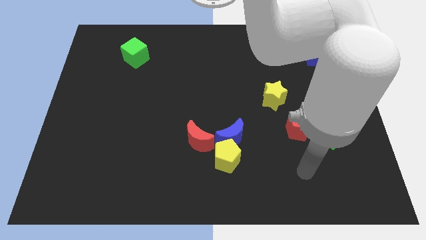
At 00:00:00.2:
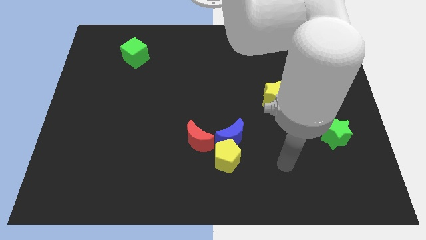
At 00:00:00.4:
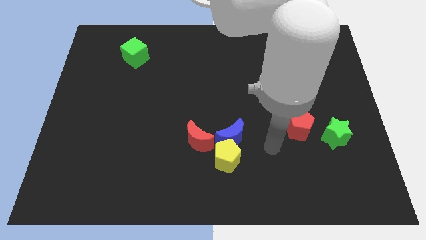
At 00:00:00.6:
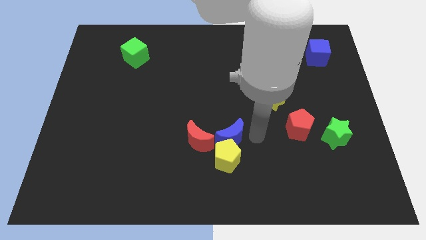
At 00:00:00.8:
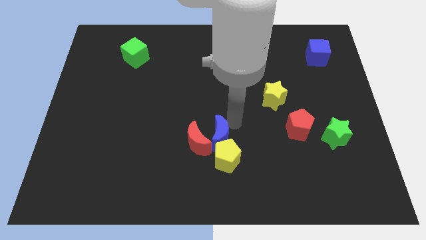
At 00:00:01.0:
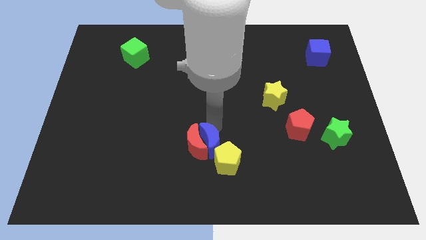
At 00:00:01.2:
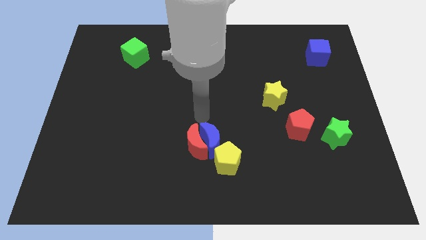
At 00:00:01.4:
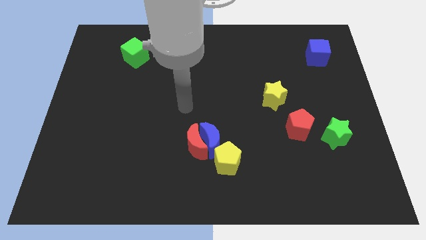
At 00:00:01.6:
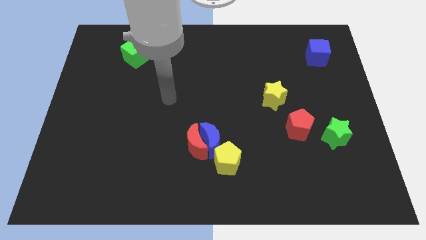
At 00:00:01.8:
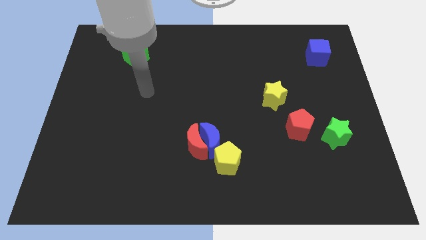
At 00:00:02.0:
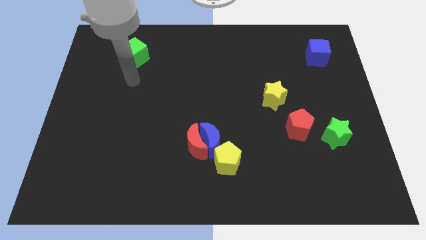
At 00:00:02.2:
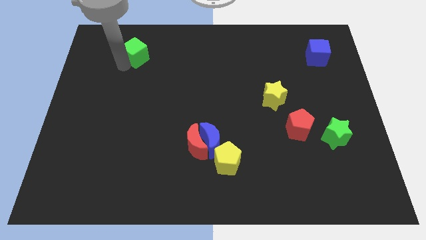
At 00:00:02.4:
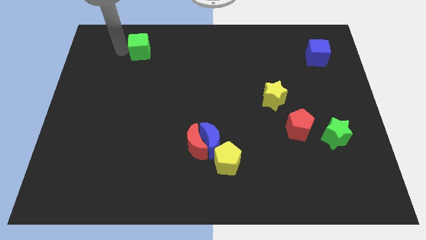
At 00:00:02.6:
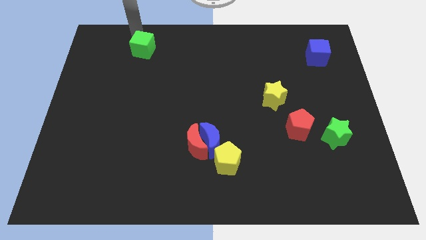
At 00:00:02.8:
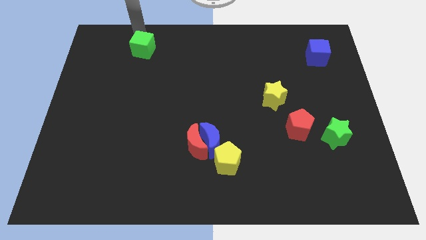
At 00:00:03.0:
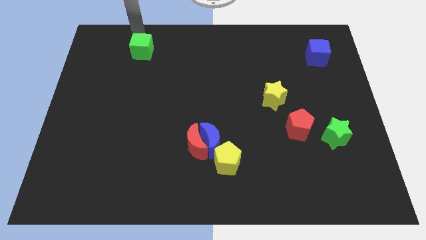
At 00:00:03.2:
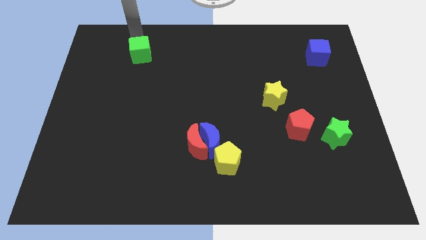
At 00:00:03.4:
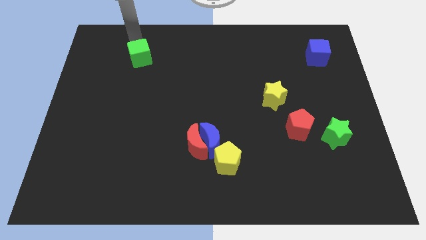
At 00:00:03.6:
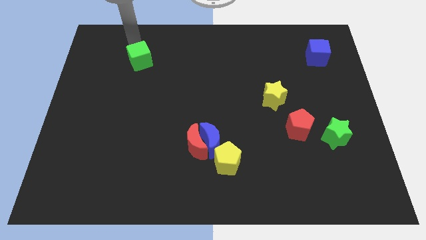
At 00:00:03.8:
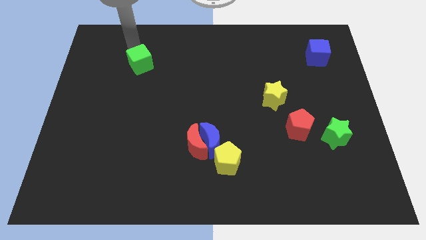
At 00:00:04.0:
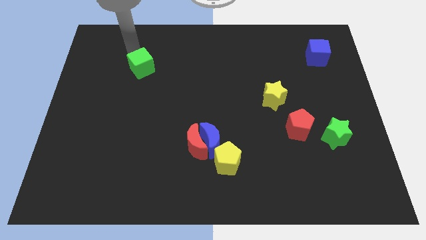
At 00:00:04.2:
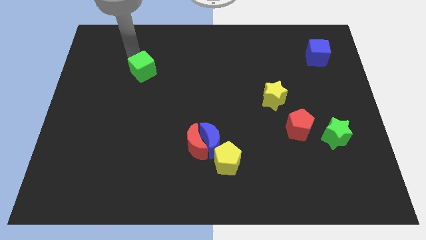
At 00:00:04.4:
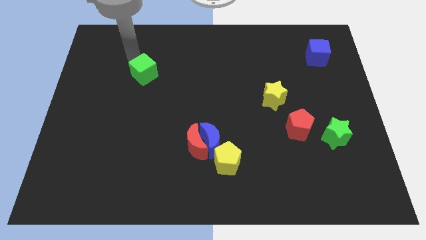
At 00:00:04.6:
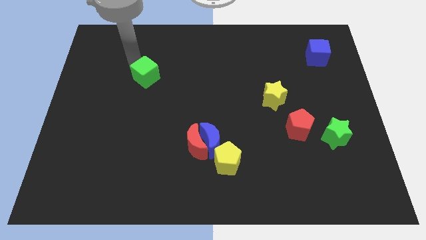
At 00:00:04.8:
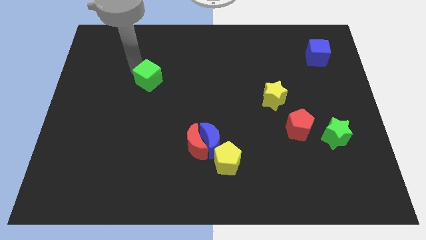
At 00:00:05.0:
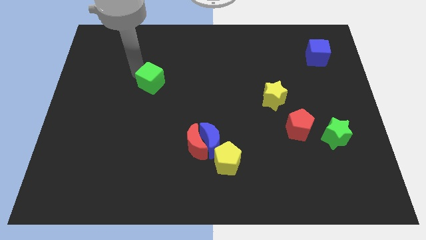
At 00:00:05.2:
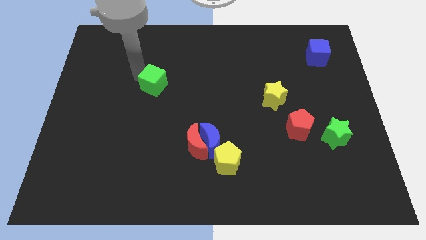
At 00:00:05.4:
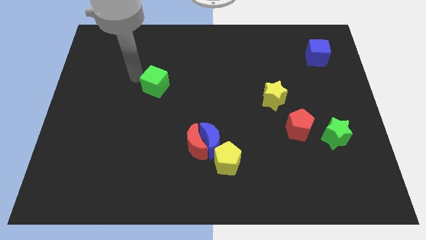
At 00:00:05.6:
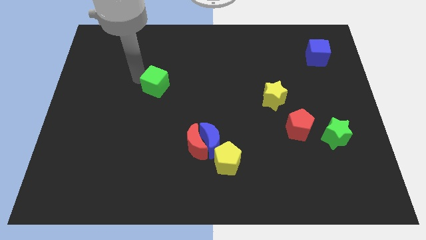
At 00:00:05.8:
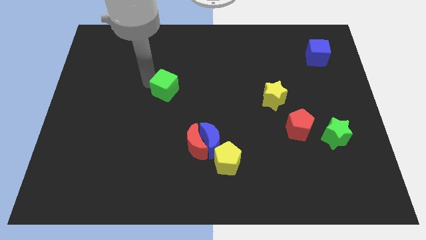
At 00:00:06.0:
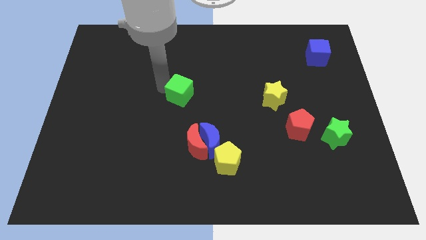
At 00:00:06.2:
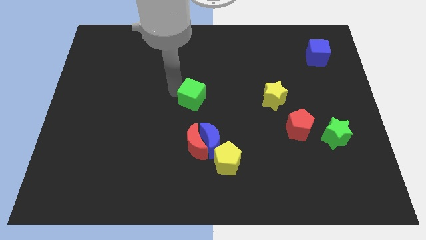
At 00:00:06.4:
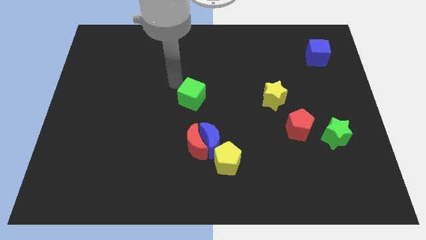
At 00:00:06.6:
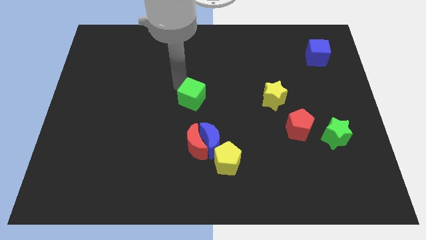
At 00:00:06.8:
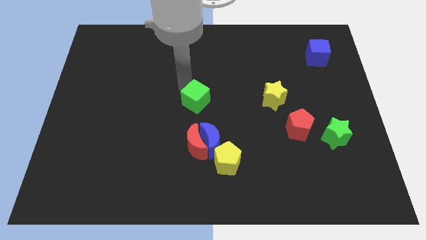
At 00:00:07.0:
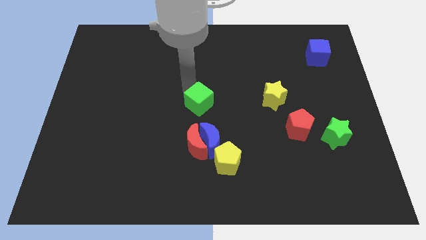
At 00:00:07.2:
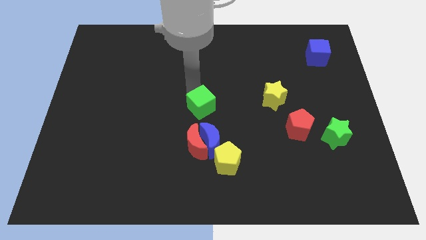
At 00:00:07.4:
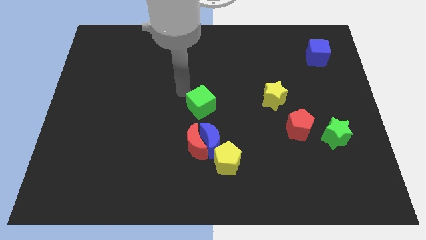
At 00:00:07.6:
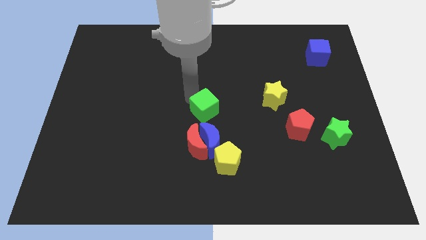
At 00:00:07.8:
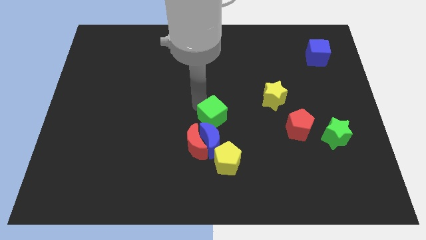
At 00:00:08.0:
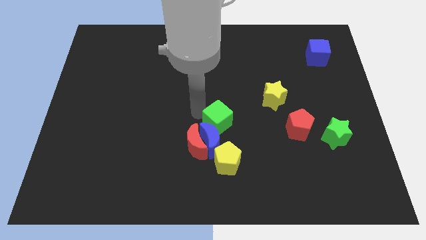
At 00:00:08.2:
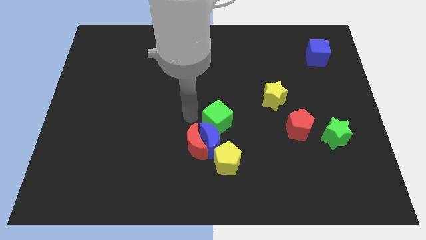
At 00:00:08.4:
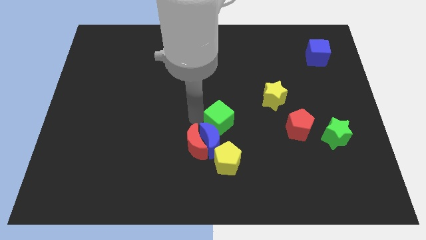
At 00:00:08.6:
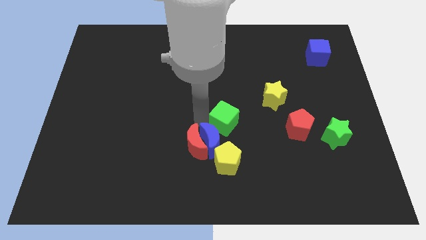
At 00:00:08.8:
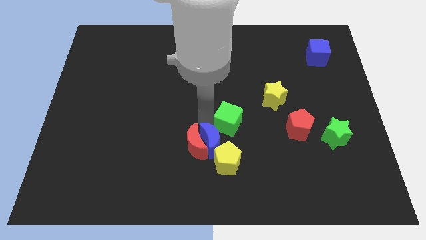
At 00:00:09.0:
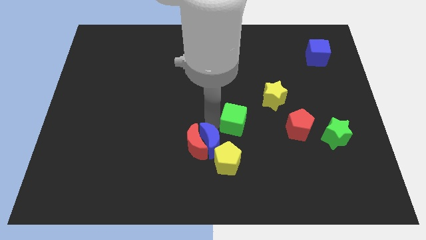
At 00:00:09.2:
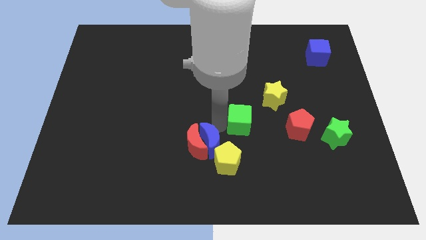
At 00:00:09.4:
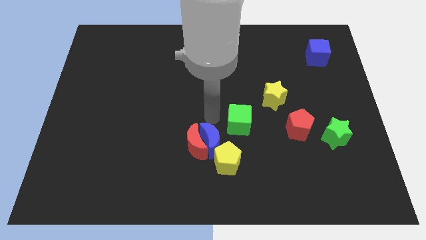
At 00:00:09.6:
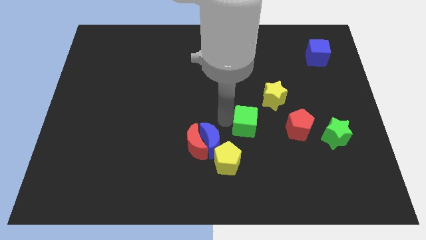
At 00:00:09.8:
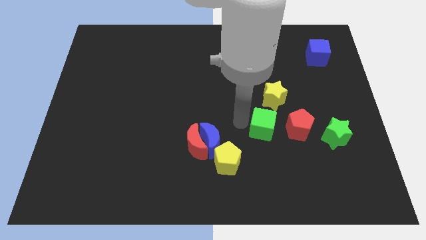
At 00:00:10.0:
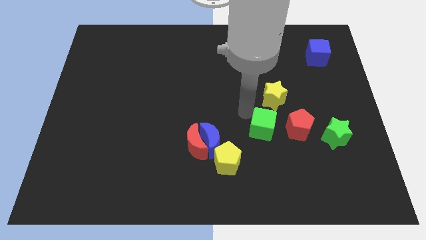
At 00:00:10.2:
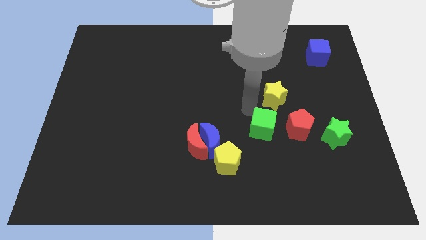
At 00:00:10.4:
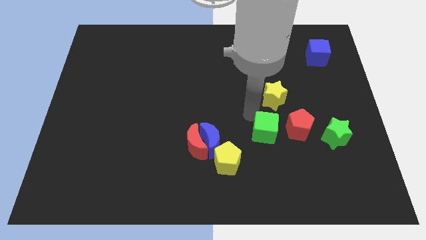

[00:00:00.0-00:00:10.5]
put the green cube to the bottom left of the red pentagon

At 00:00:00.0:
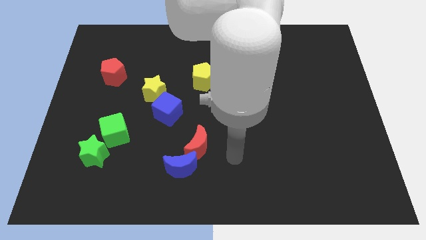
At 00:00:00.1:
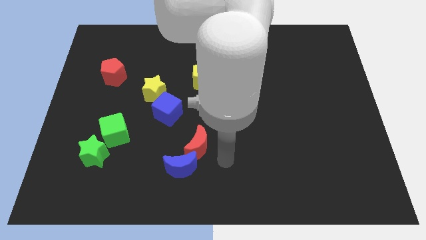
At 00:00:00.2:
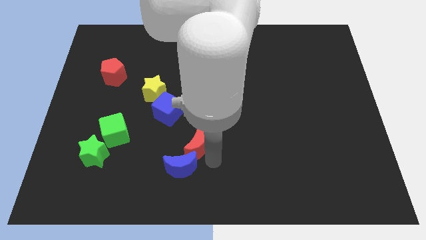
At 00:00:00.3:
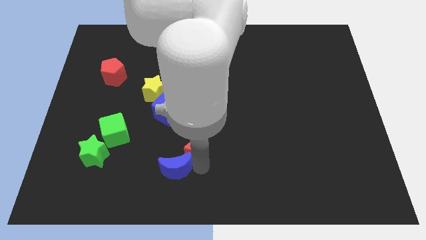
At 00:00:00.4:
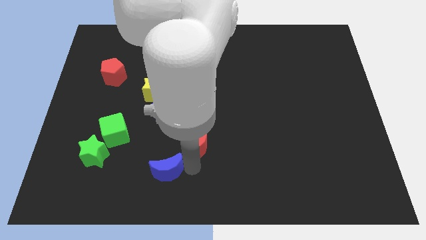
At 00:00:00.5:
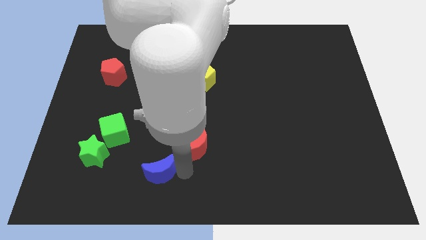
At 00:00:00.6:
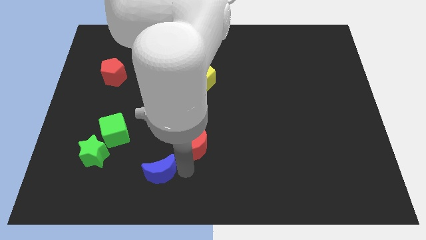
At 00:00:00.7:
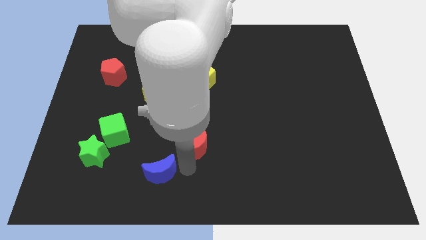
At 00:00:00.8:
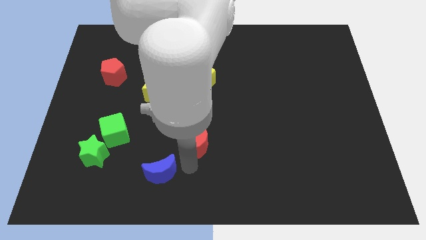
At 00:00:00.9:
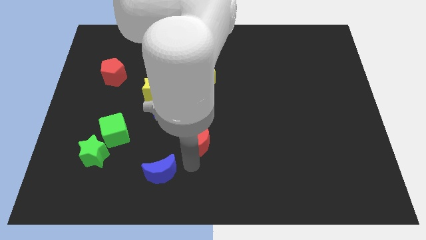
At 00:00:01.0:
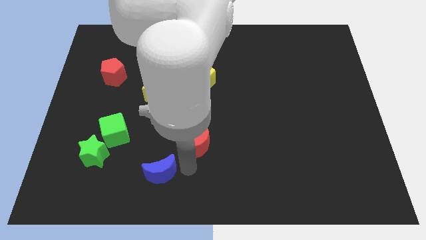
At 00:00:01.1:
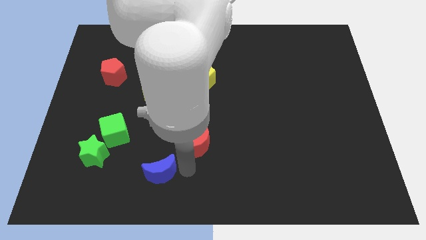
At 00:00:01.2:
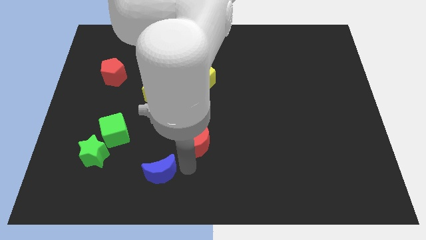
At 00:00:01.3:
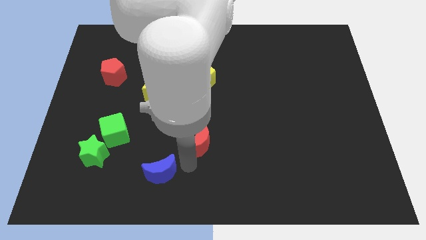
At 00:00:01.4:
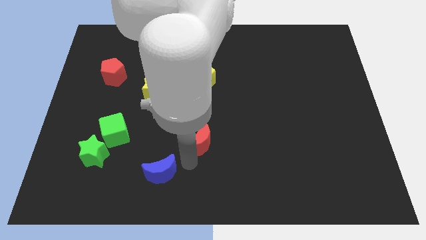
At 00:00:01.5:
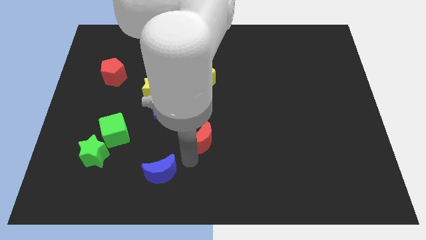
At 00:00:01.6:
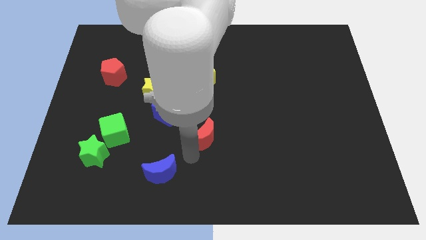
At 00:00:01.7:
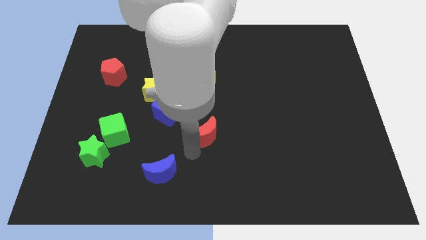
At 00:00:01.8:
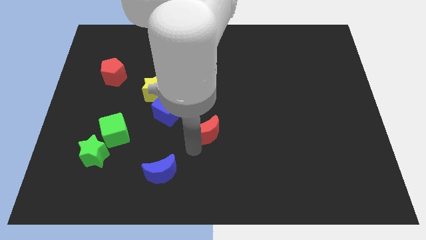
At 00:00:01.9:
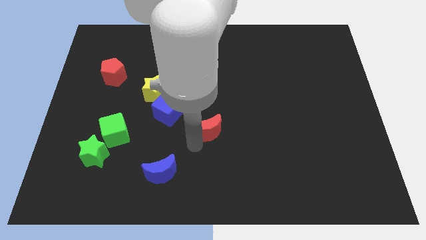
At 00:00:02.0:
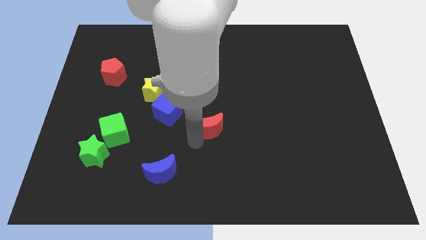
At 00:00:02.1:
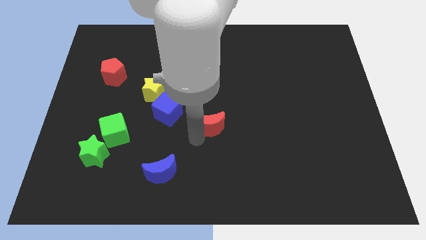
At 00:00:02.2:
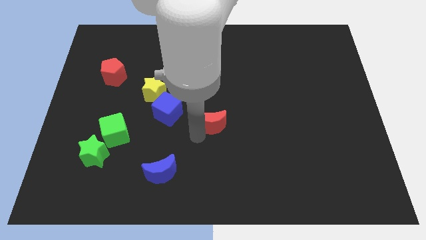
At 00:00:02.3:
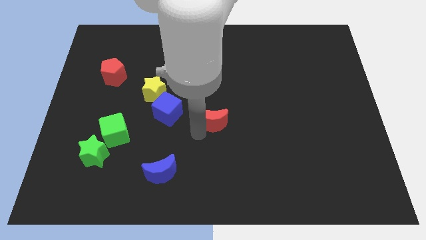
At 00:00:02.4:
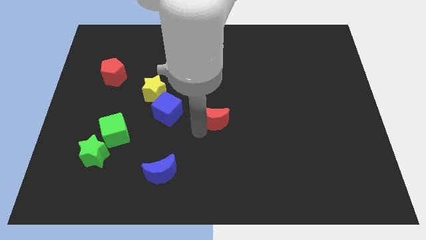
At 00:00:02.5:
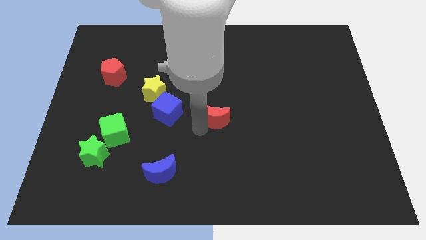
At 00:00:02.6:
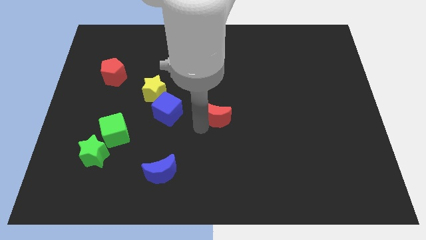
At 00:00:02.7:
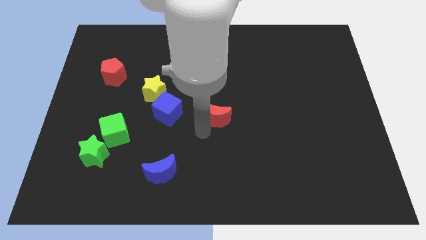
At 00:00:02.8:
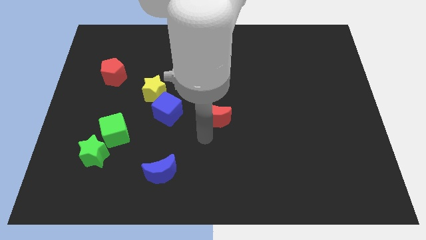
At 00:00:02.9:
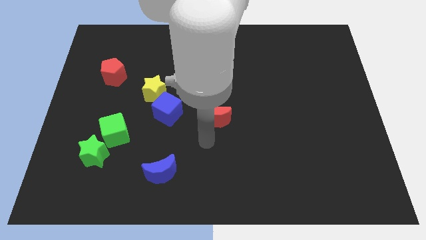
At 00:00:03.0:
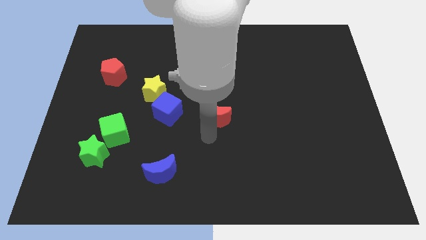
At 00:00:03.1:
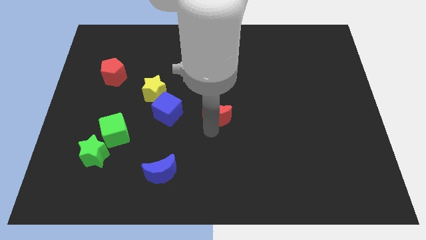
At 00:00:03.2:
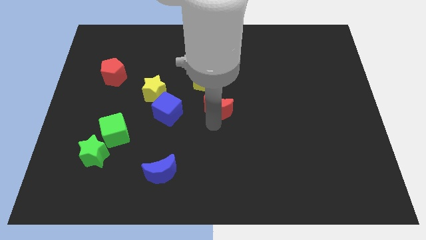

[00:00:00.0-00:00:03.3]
move the red moon diagonally down and to the right of the yellow pentagon
